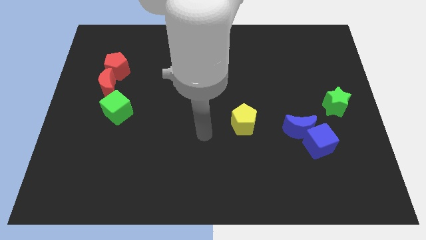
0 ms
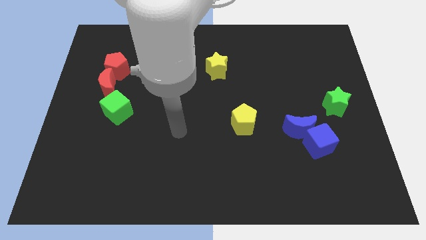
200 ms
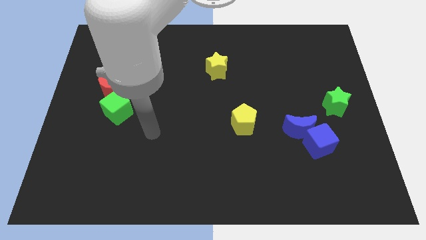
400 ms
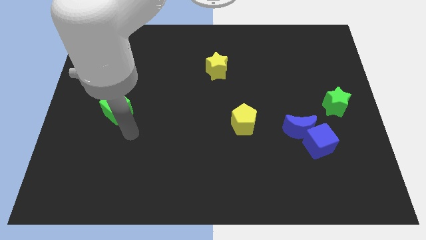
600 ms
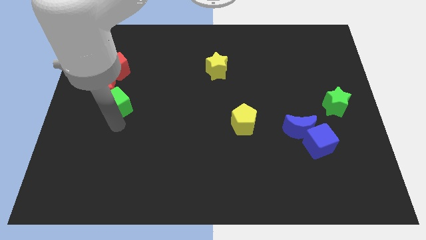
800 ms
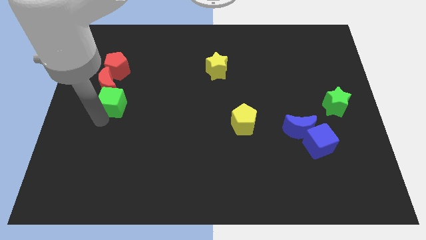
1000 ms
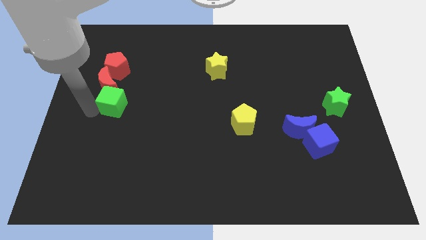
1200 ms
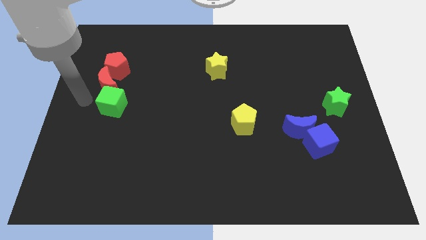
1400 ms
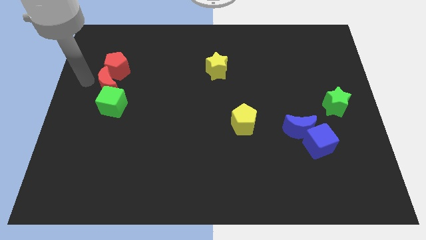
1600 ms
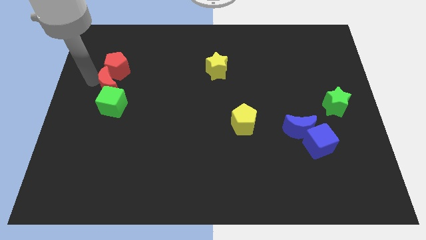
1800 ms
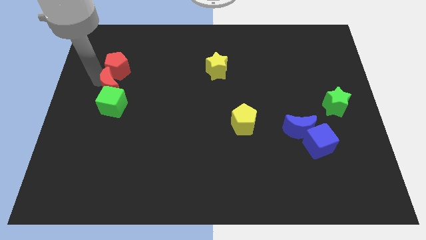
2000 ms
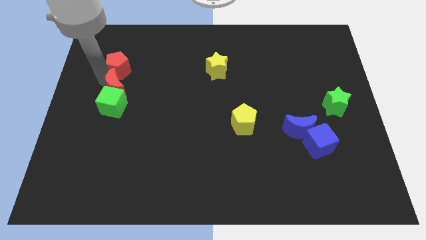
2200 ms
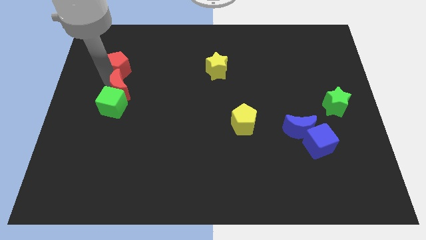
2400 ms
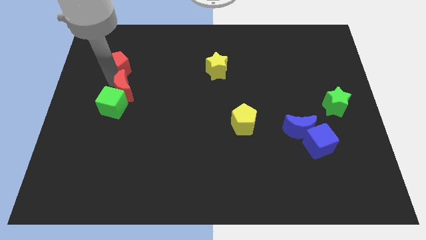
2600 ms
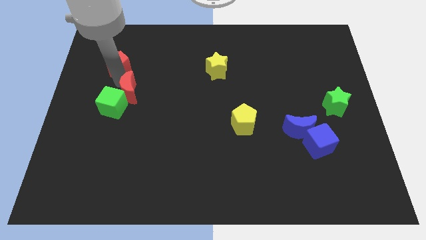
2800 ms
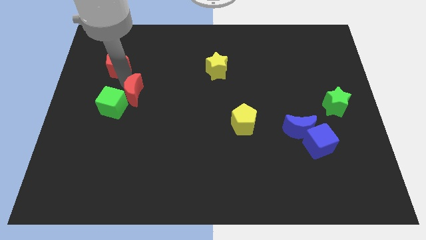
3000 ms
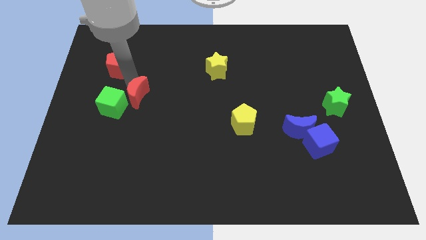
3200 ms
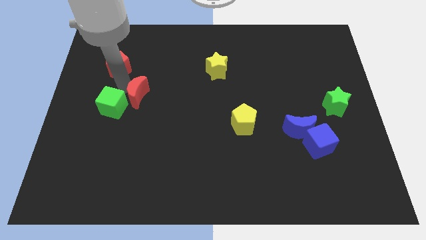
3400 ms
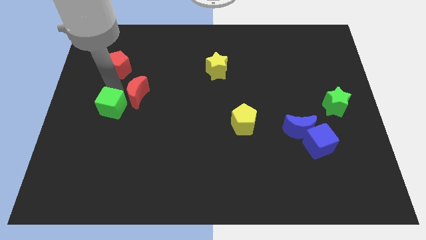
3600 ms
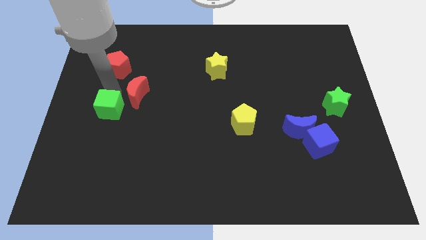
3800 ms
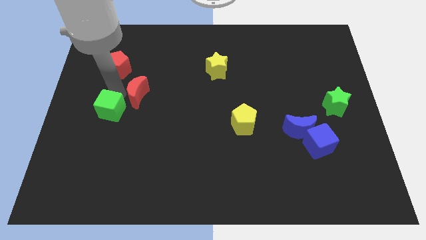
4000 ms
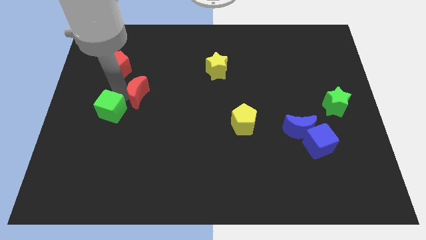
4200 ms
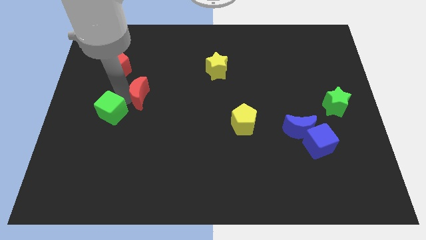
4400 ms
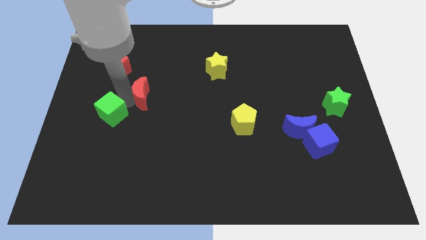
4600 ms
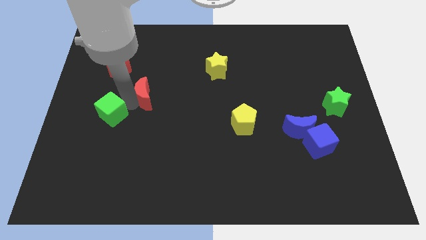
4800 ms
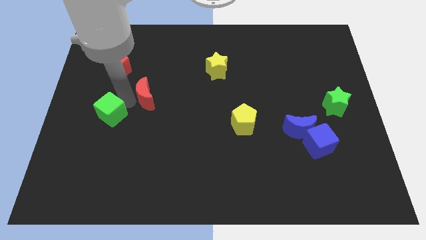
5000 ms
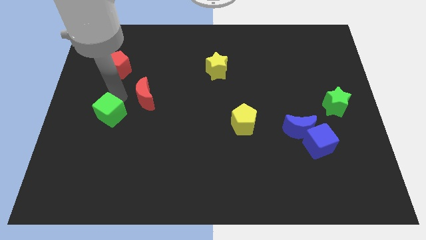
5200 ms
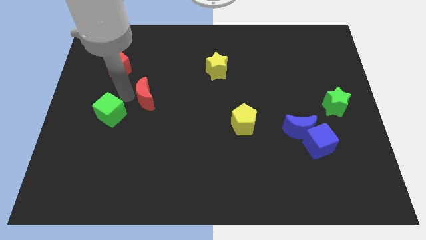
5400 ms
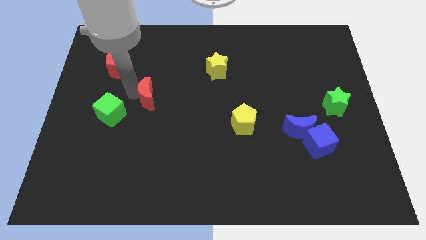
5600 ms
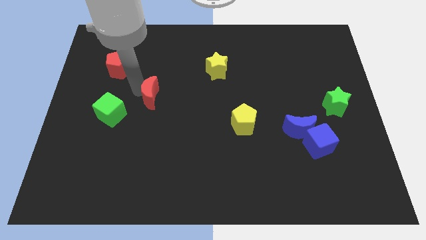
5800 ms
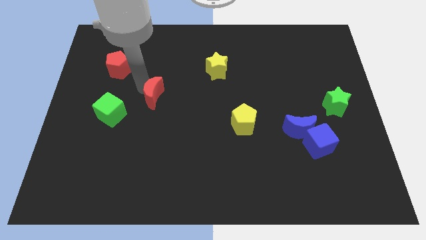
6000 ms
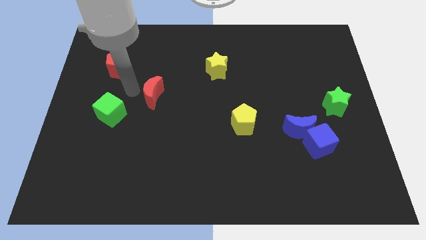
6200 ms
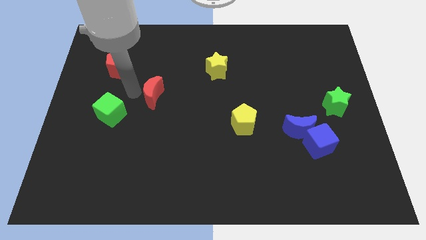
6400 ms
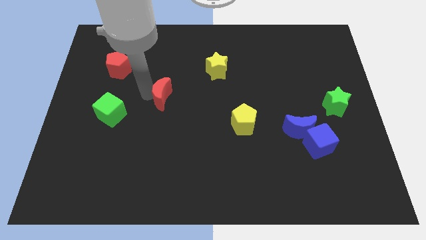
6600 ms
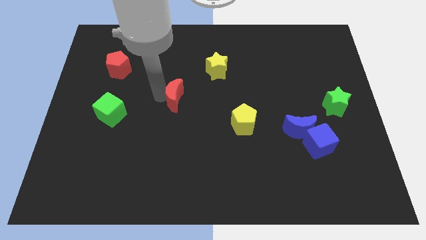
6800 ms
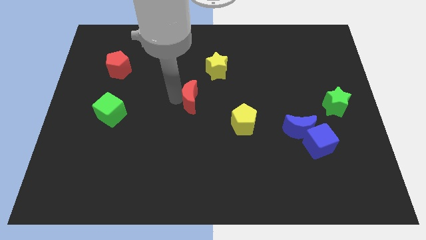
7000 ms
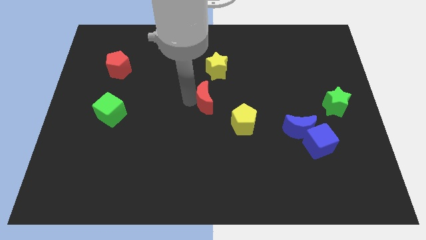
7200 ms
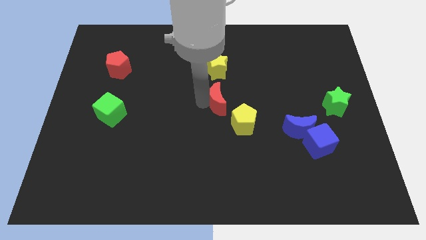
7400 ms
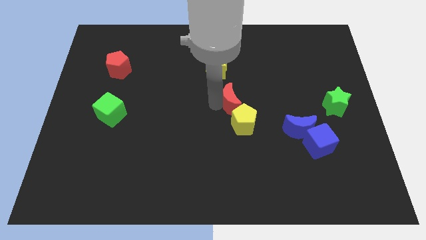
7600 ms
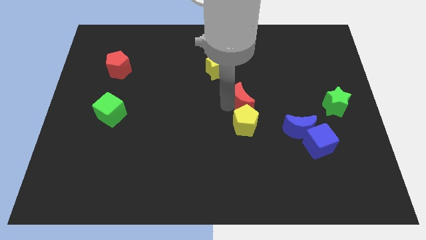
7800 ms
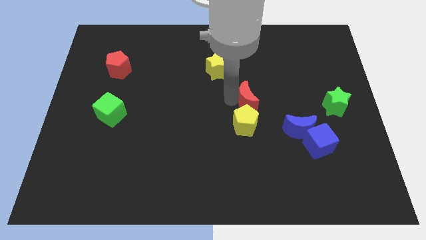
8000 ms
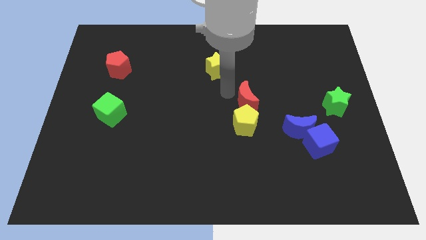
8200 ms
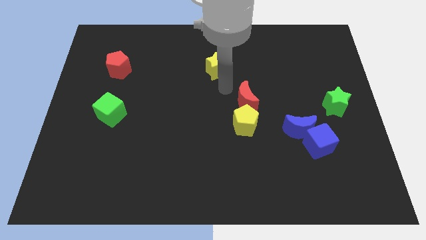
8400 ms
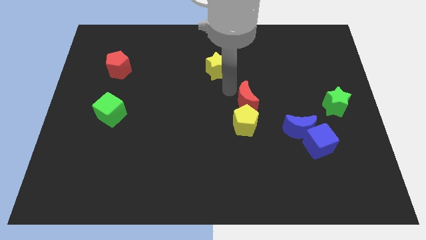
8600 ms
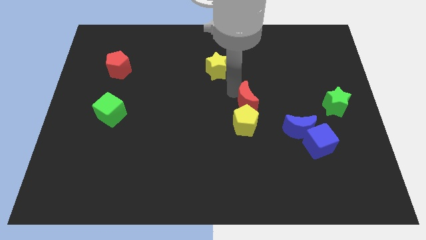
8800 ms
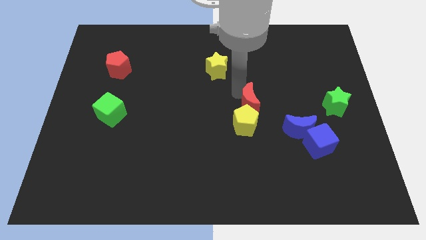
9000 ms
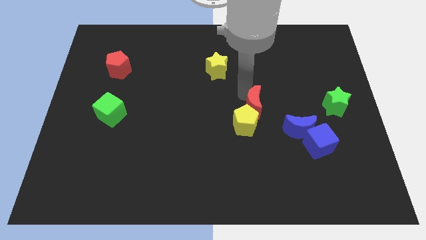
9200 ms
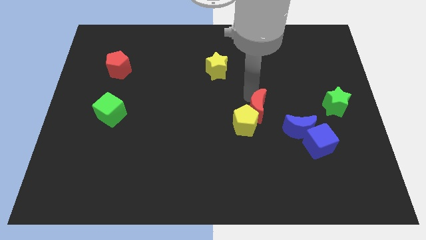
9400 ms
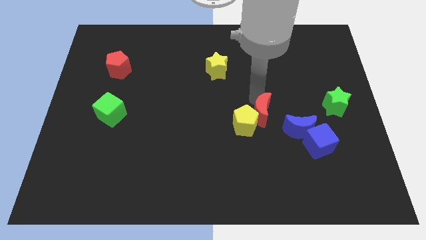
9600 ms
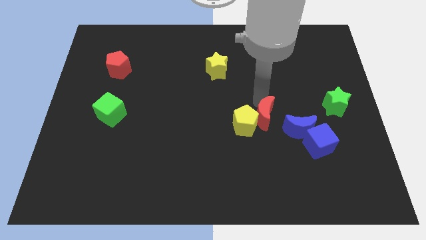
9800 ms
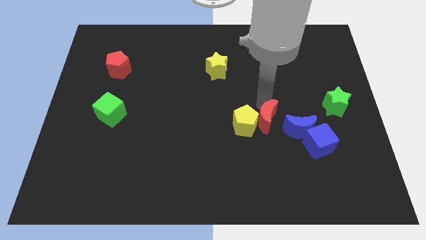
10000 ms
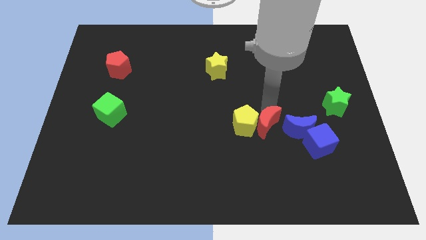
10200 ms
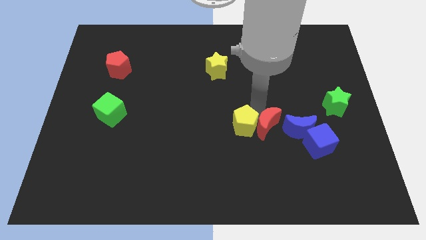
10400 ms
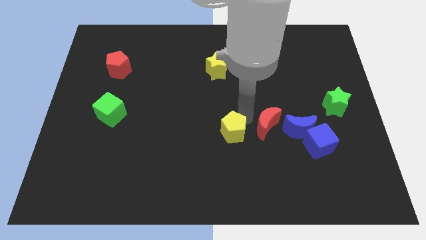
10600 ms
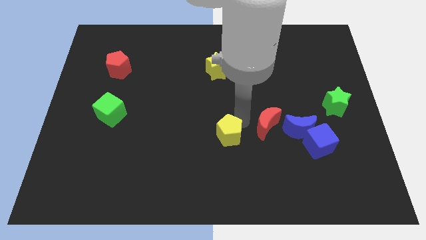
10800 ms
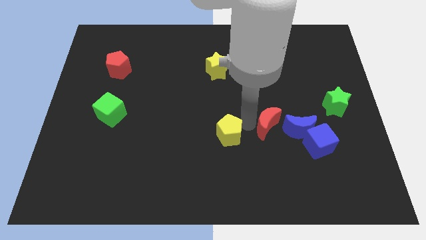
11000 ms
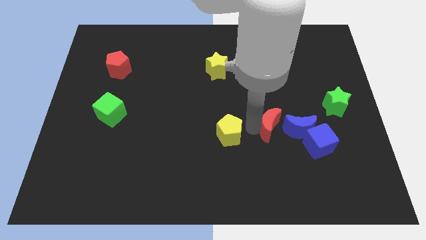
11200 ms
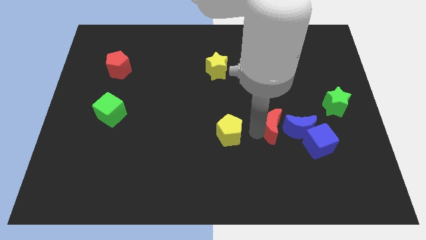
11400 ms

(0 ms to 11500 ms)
slide the red moon towards the blue moon

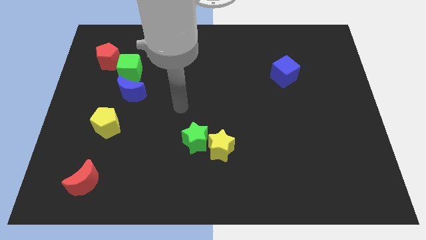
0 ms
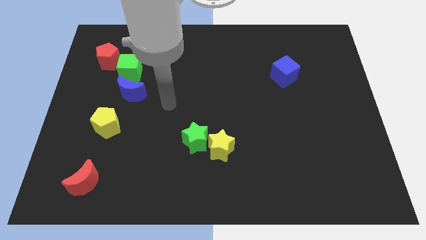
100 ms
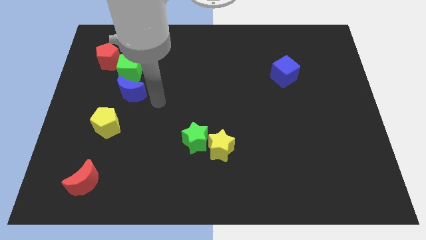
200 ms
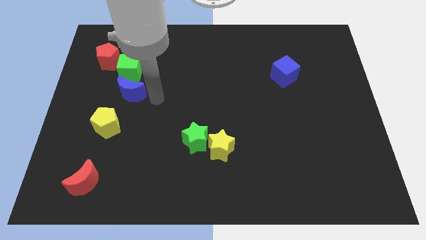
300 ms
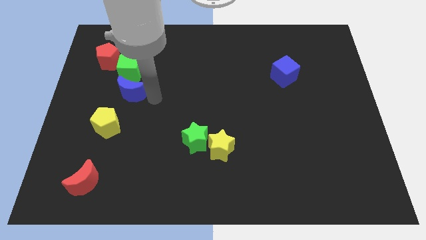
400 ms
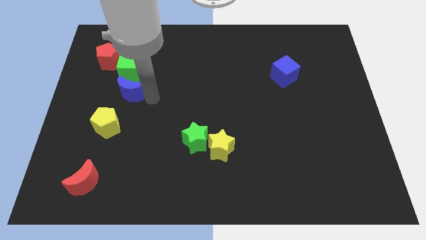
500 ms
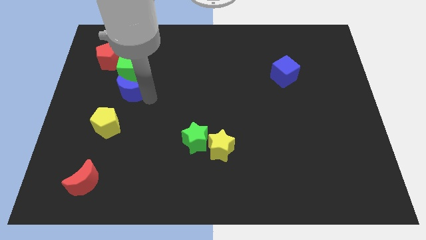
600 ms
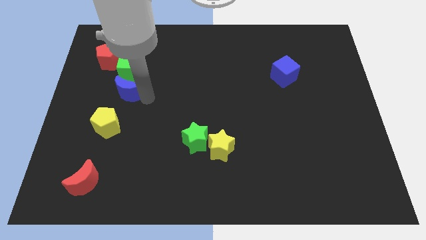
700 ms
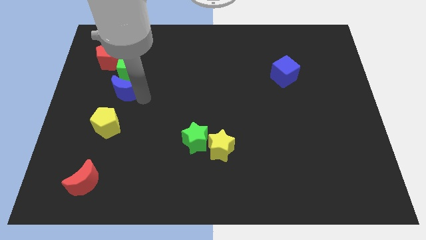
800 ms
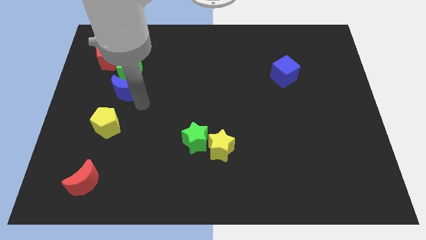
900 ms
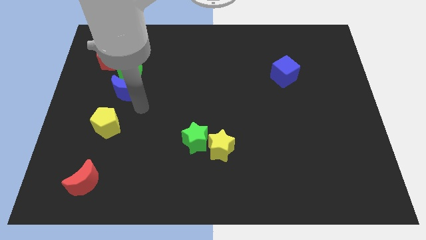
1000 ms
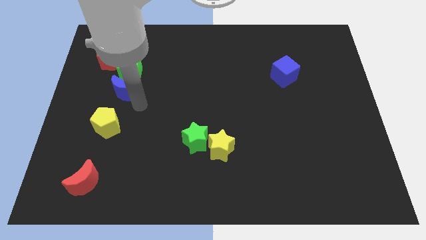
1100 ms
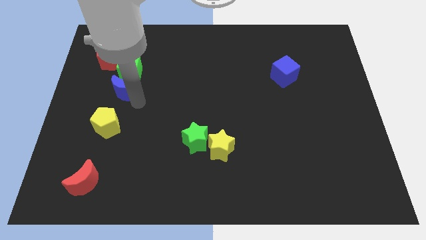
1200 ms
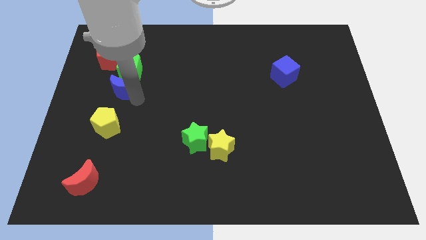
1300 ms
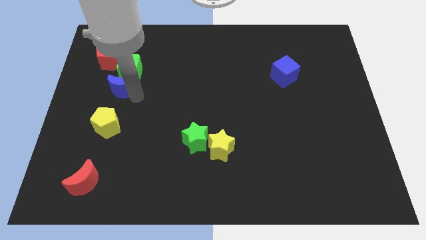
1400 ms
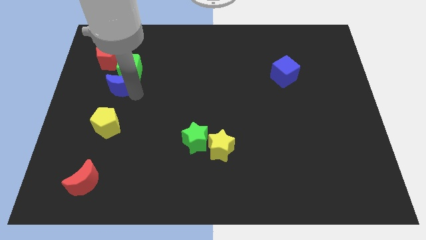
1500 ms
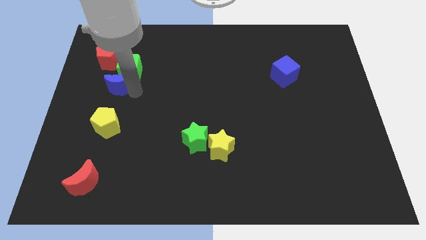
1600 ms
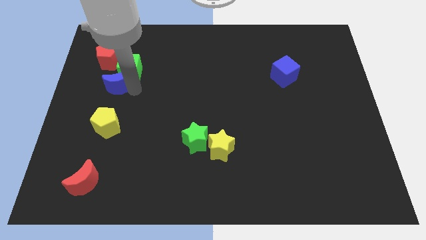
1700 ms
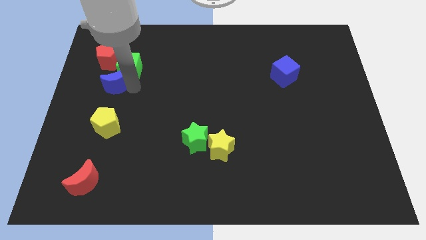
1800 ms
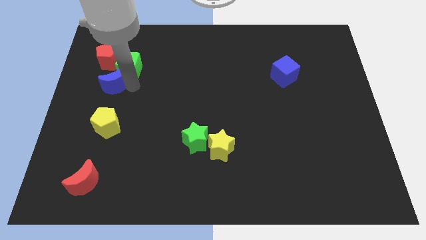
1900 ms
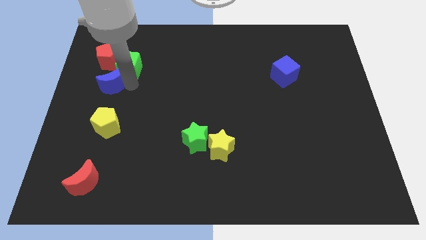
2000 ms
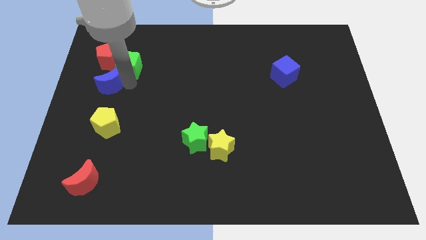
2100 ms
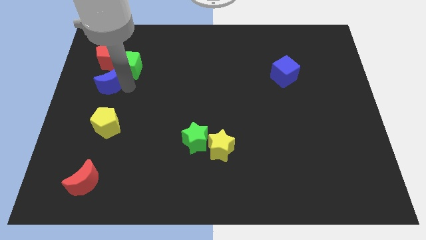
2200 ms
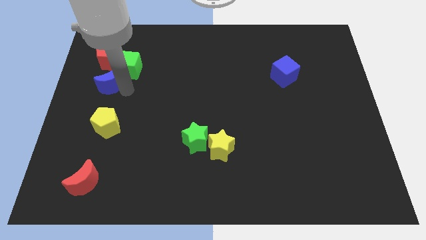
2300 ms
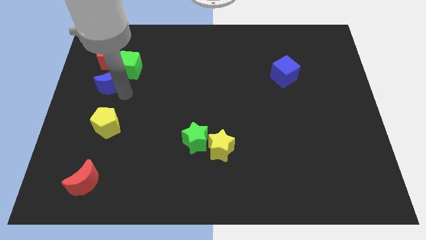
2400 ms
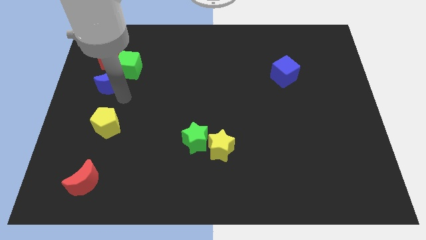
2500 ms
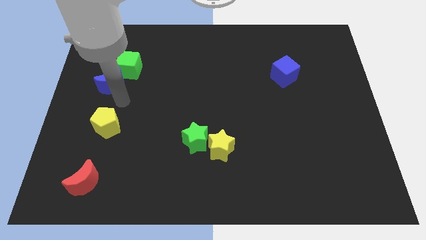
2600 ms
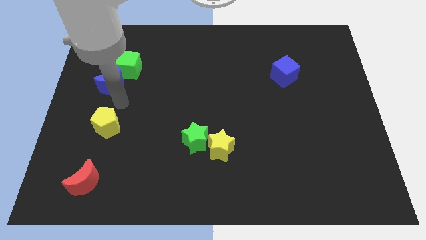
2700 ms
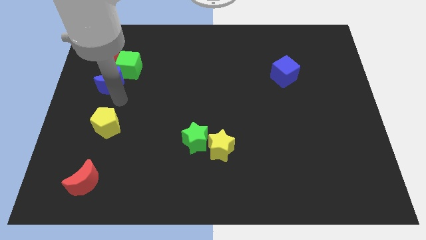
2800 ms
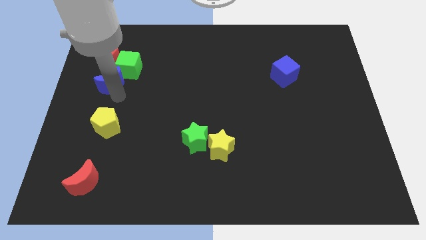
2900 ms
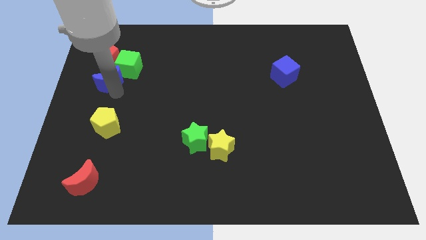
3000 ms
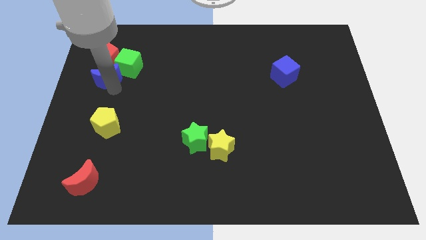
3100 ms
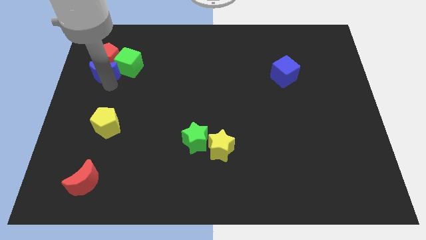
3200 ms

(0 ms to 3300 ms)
slide the blue moon to the red pentagon
